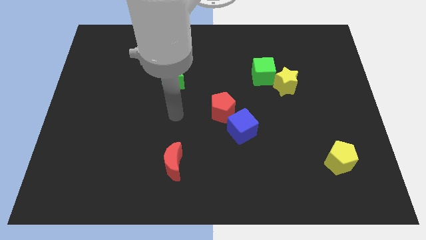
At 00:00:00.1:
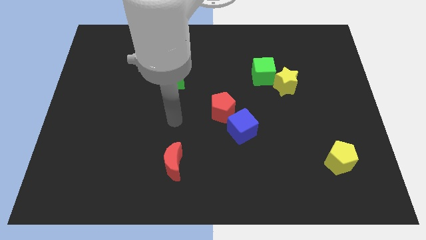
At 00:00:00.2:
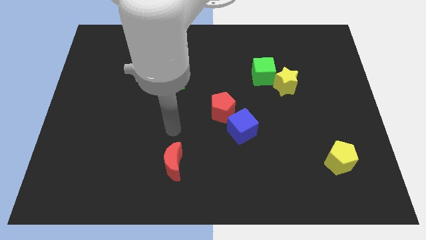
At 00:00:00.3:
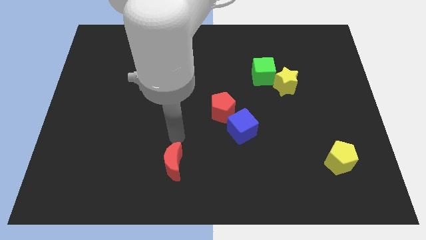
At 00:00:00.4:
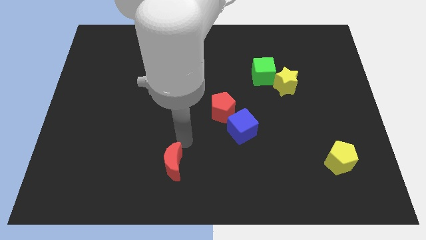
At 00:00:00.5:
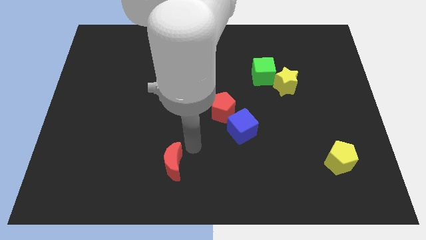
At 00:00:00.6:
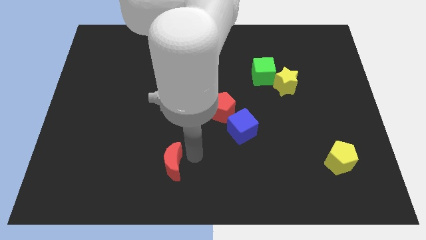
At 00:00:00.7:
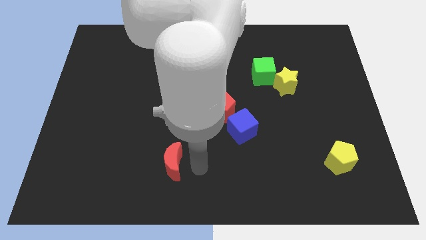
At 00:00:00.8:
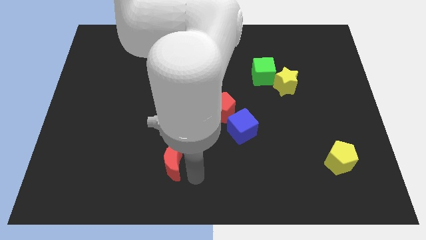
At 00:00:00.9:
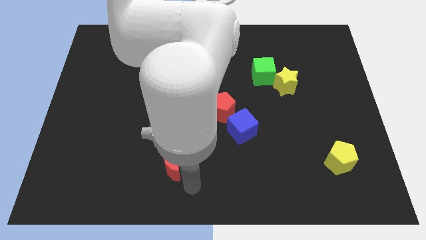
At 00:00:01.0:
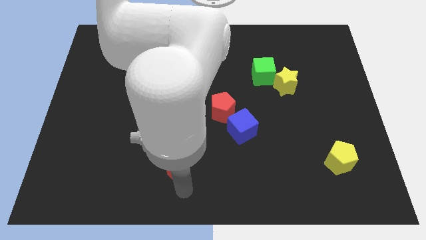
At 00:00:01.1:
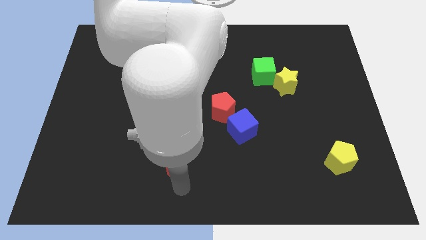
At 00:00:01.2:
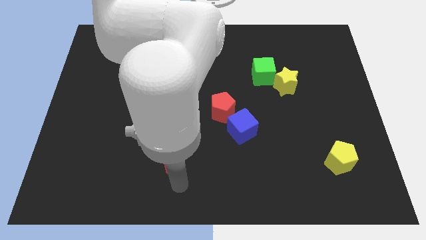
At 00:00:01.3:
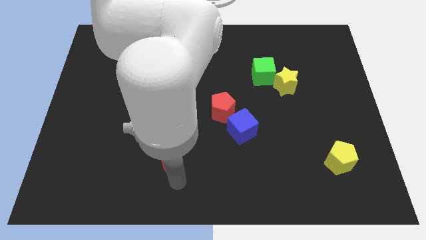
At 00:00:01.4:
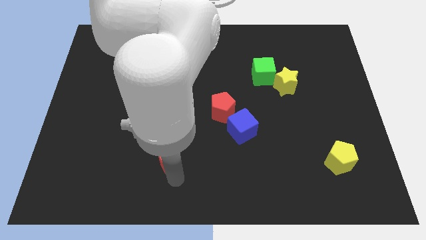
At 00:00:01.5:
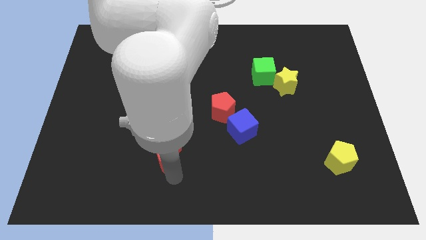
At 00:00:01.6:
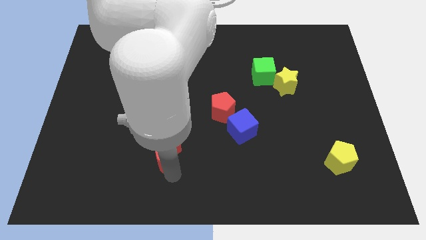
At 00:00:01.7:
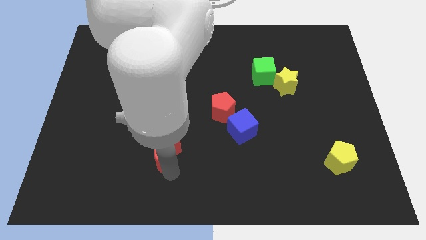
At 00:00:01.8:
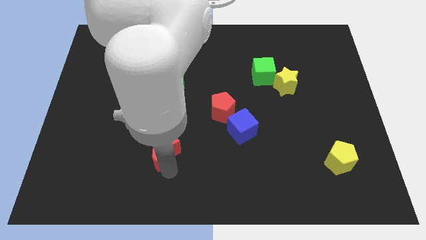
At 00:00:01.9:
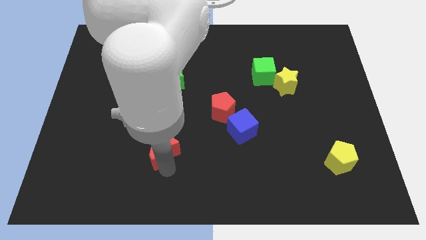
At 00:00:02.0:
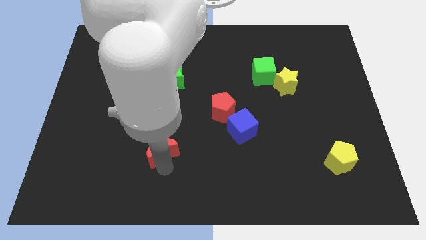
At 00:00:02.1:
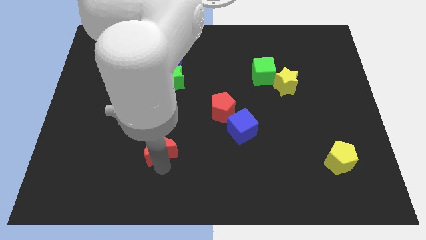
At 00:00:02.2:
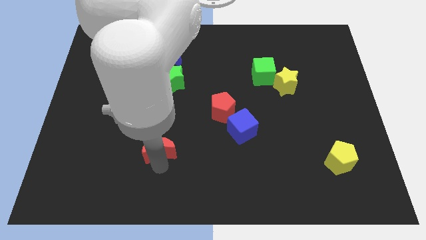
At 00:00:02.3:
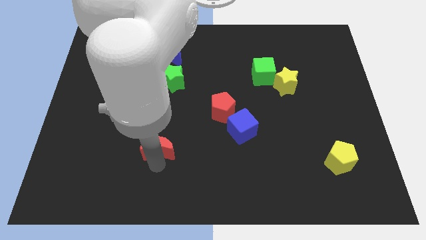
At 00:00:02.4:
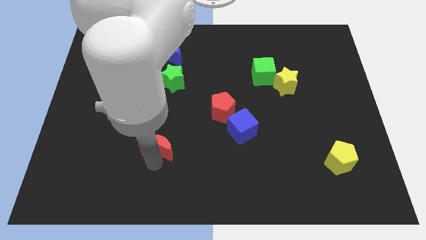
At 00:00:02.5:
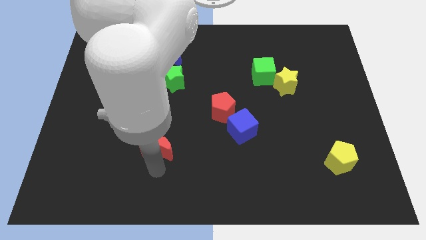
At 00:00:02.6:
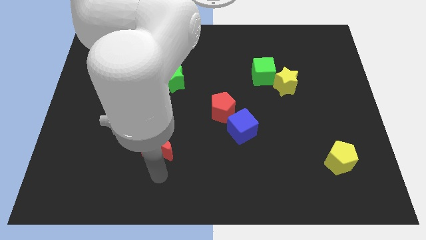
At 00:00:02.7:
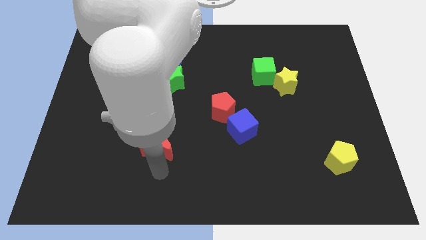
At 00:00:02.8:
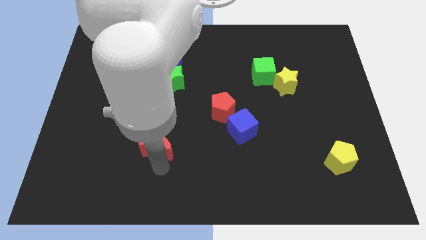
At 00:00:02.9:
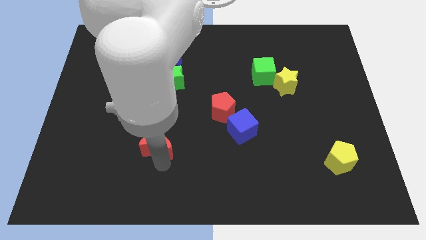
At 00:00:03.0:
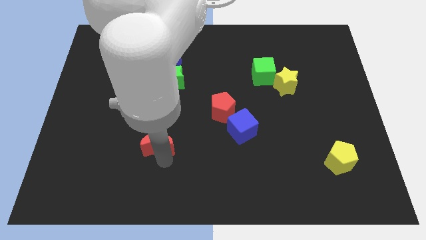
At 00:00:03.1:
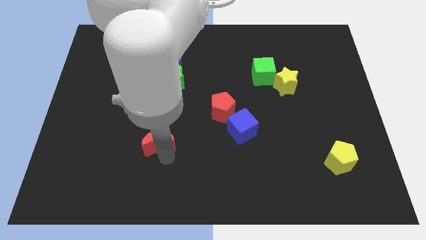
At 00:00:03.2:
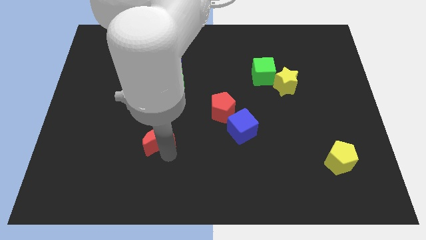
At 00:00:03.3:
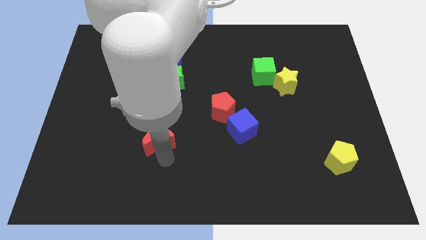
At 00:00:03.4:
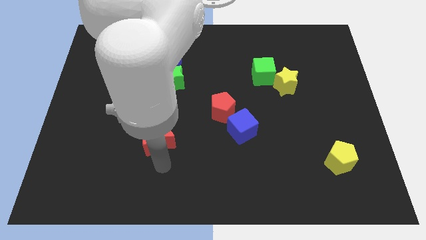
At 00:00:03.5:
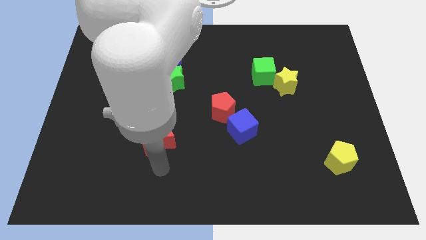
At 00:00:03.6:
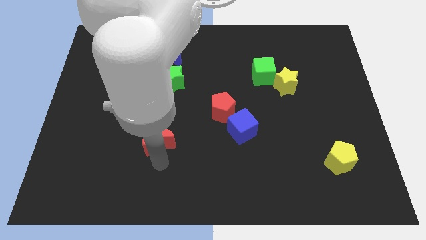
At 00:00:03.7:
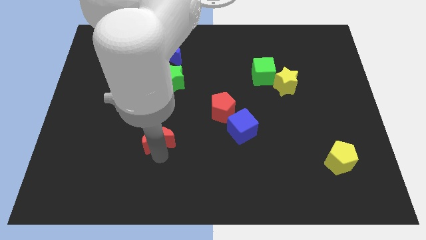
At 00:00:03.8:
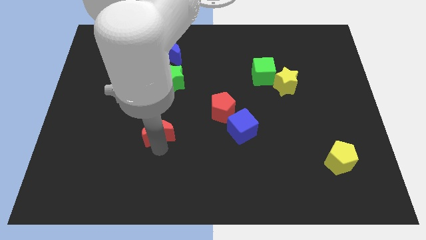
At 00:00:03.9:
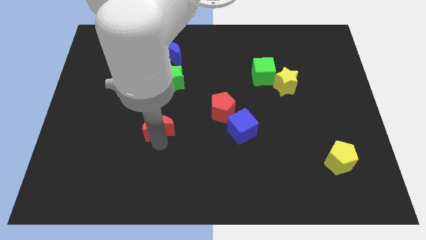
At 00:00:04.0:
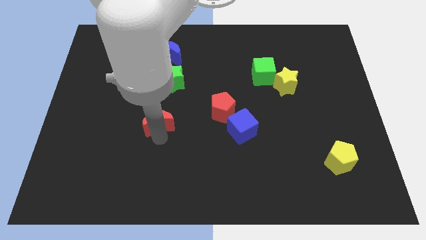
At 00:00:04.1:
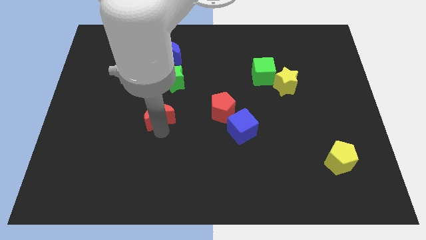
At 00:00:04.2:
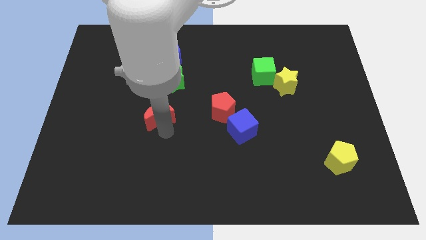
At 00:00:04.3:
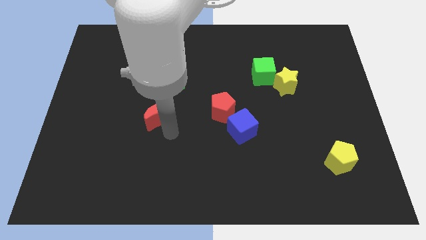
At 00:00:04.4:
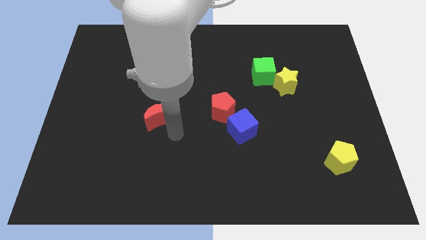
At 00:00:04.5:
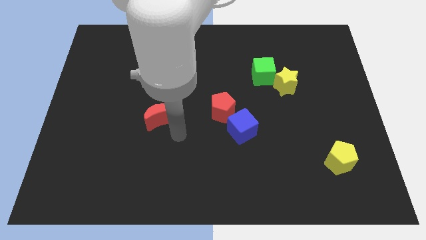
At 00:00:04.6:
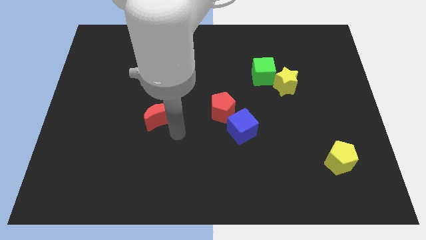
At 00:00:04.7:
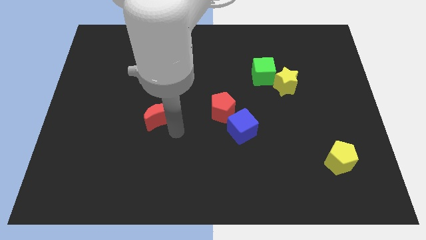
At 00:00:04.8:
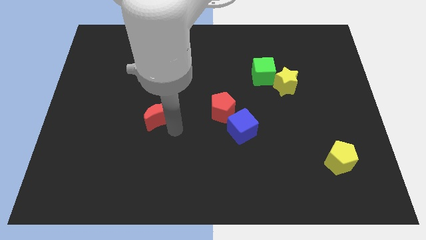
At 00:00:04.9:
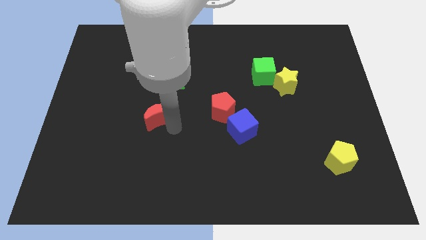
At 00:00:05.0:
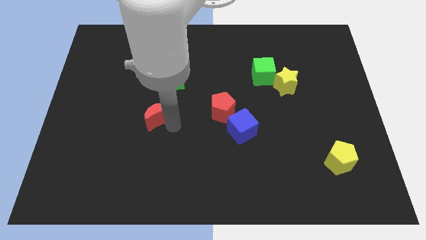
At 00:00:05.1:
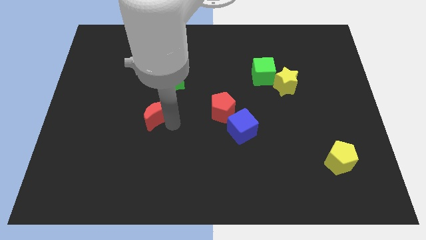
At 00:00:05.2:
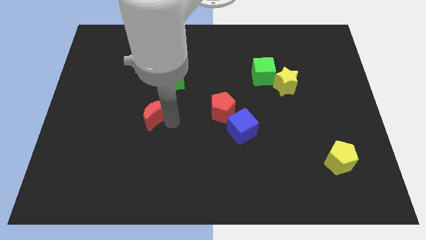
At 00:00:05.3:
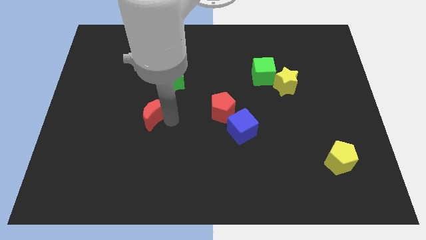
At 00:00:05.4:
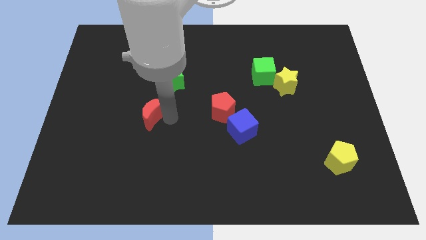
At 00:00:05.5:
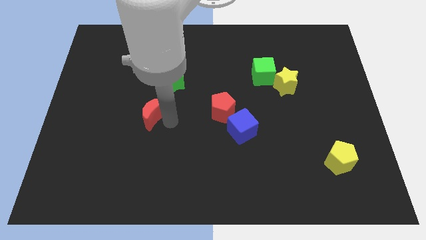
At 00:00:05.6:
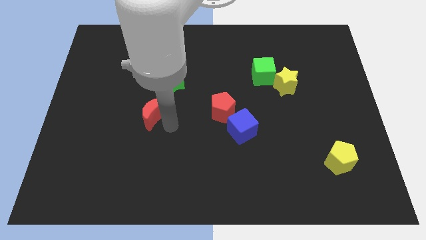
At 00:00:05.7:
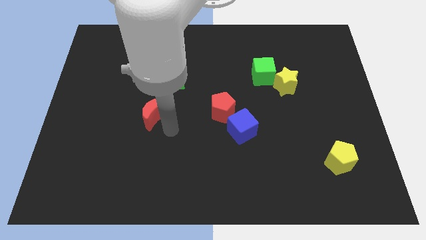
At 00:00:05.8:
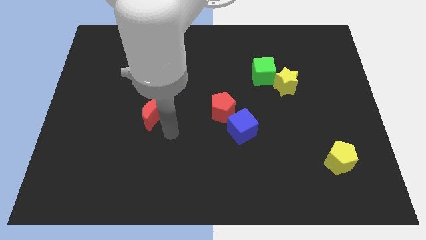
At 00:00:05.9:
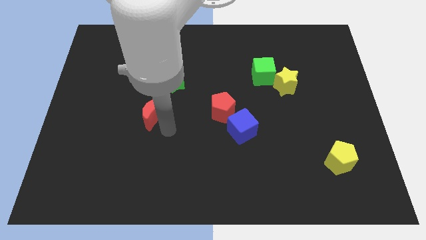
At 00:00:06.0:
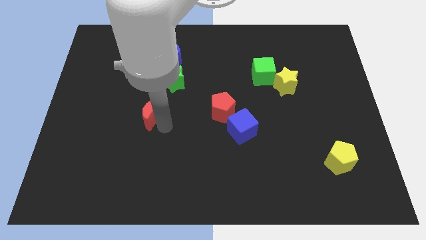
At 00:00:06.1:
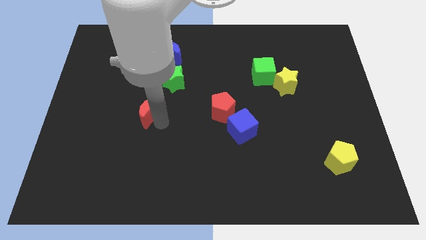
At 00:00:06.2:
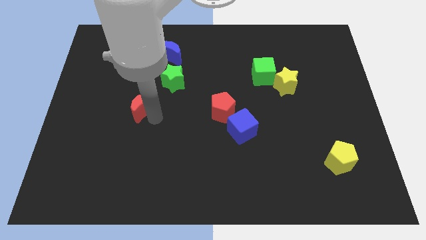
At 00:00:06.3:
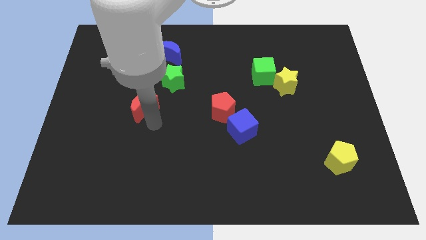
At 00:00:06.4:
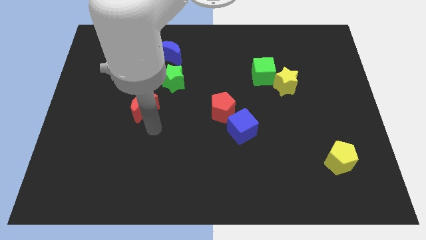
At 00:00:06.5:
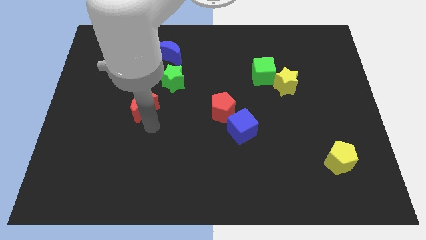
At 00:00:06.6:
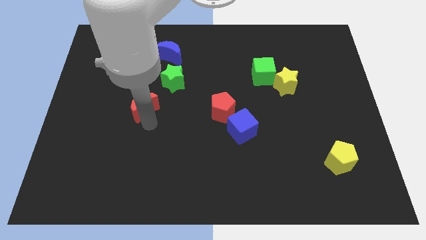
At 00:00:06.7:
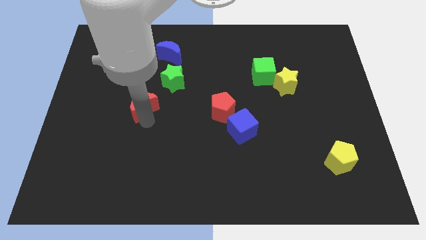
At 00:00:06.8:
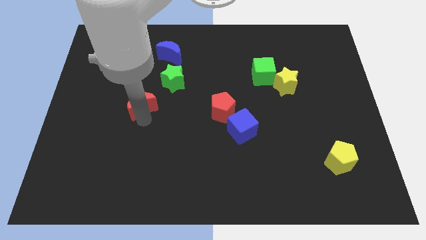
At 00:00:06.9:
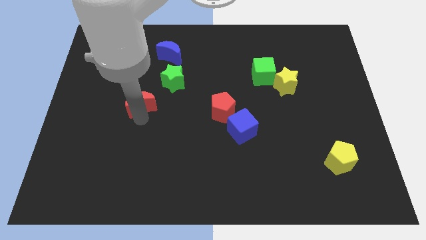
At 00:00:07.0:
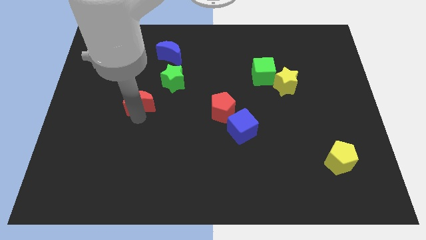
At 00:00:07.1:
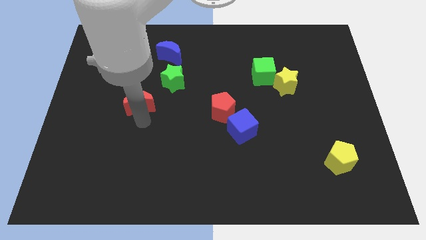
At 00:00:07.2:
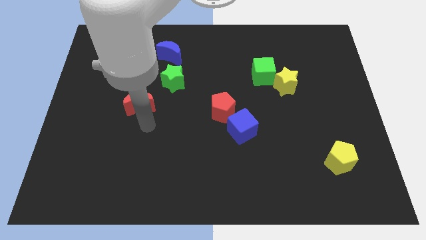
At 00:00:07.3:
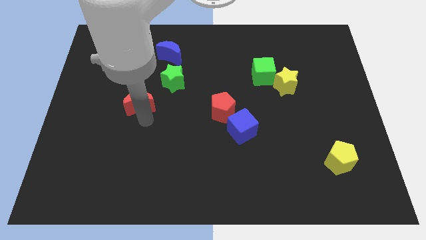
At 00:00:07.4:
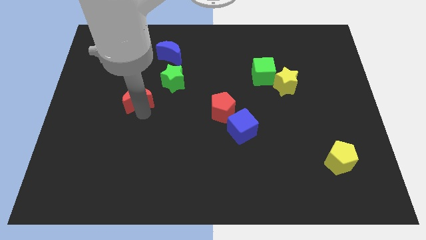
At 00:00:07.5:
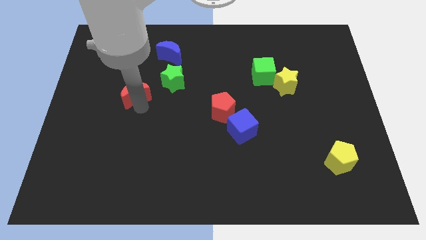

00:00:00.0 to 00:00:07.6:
slide the red moon left of the green star
